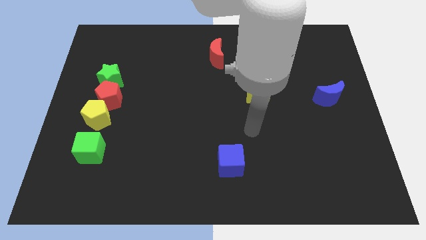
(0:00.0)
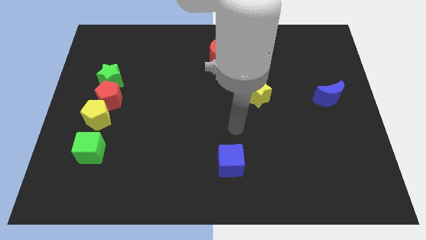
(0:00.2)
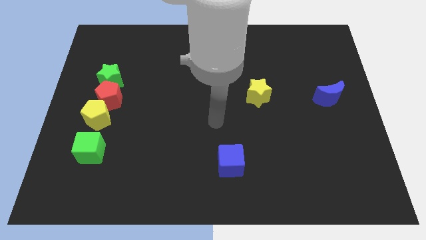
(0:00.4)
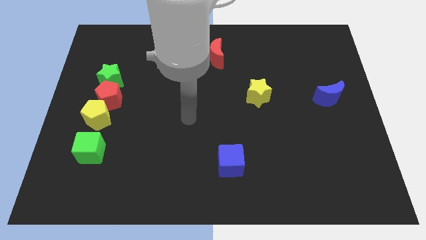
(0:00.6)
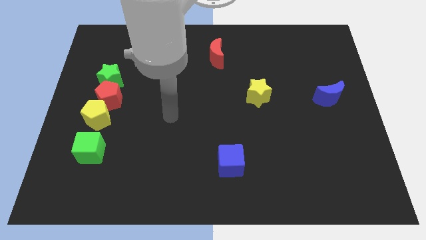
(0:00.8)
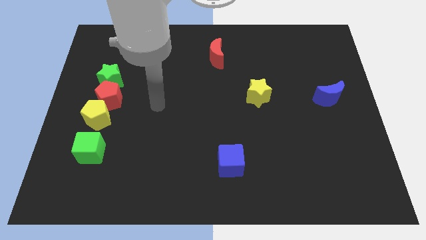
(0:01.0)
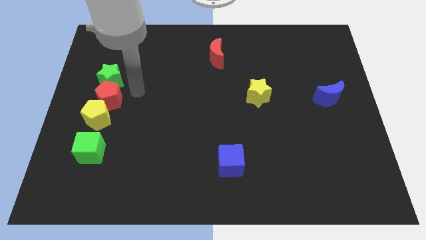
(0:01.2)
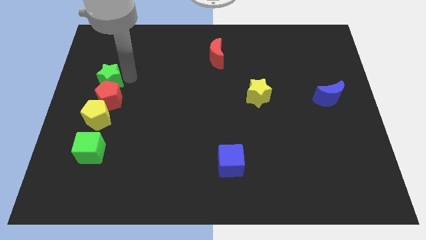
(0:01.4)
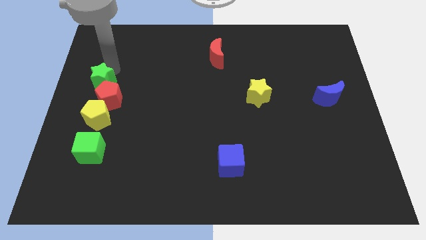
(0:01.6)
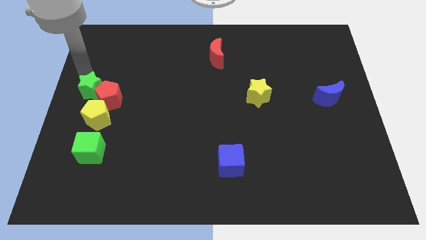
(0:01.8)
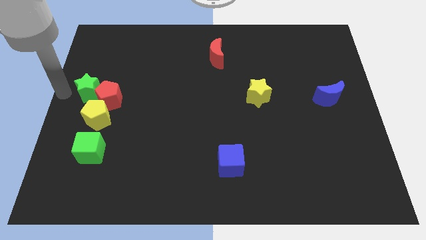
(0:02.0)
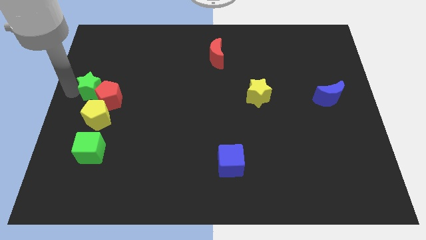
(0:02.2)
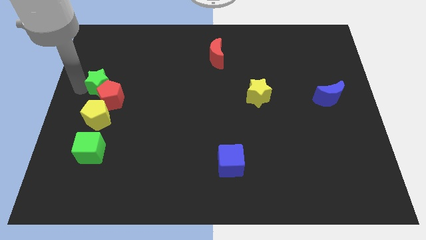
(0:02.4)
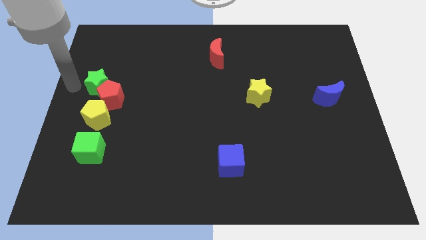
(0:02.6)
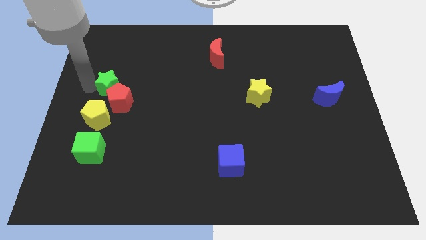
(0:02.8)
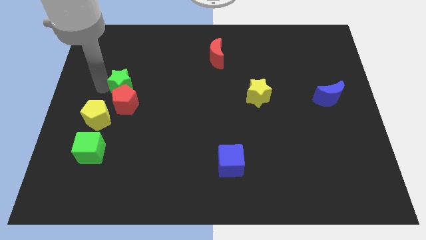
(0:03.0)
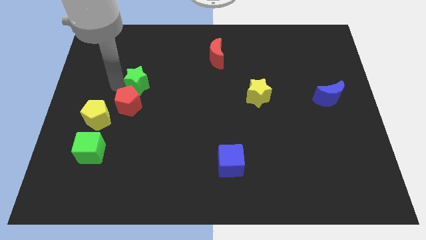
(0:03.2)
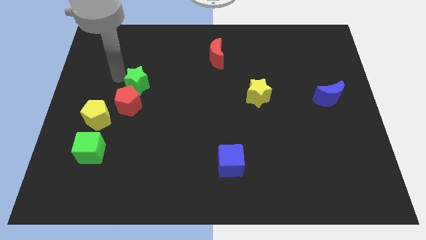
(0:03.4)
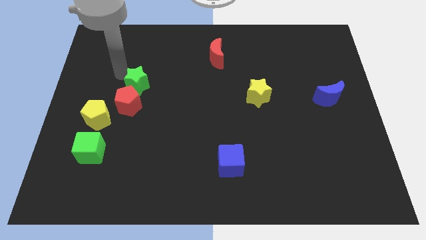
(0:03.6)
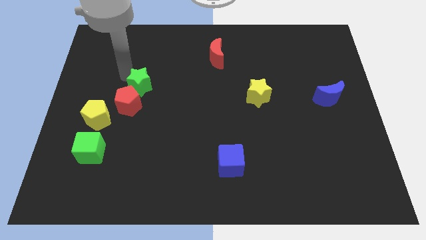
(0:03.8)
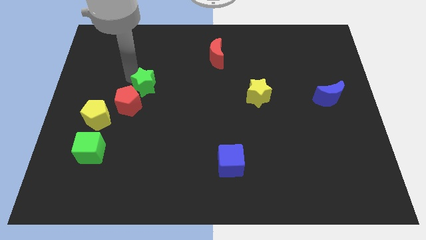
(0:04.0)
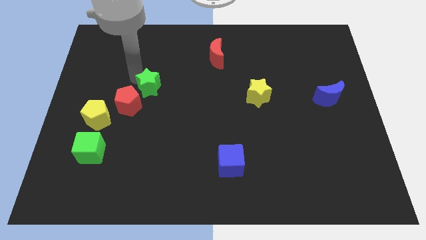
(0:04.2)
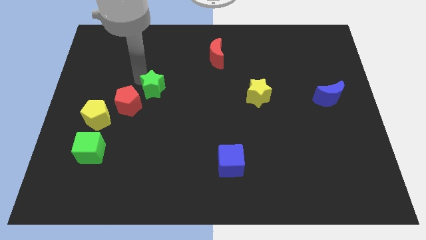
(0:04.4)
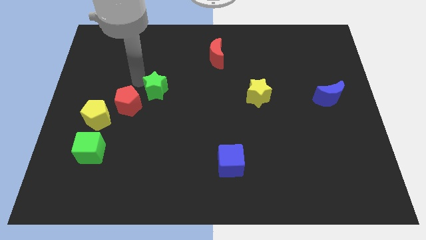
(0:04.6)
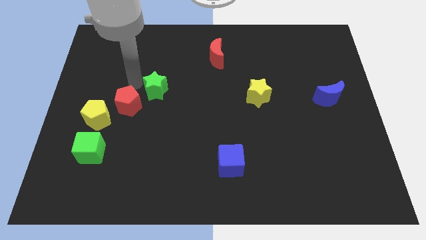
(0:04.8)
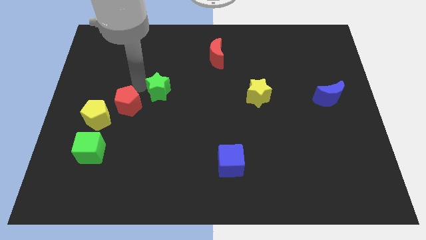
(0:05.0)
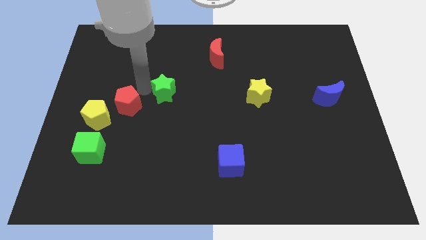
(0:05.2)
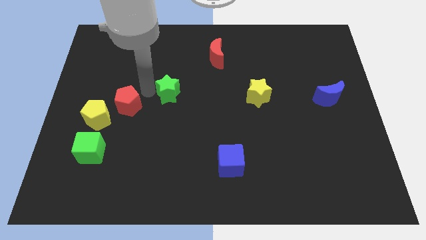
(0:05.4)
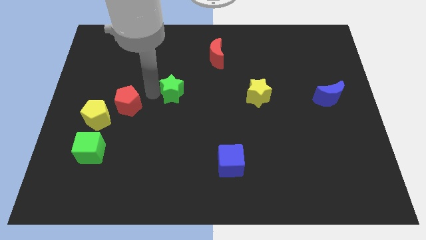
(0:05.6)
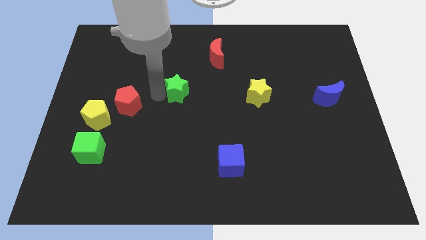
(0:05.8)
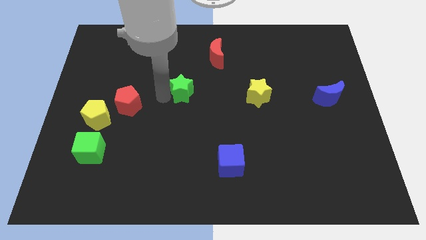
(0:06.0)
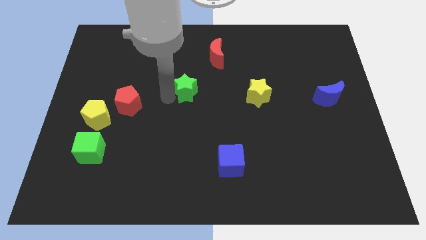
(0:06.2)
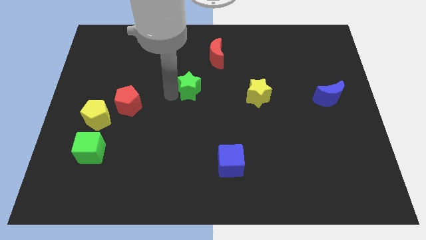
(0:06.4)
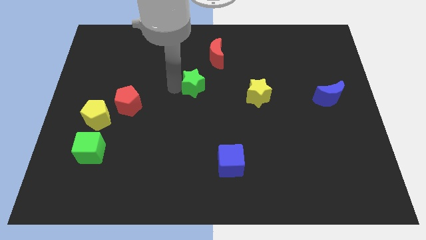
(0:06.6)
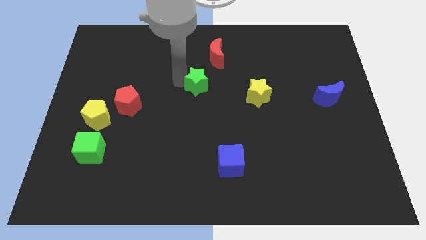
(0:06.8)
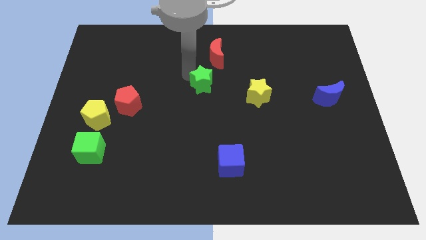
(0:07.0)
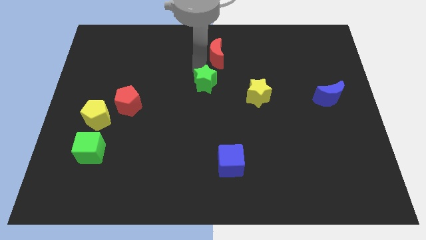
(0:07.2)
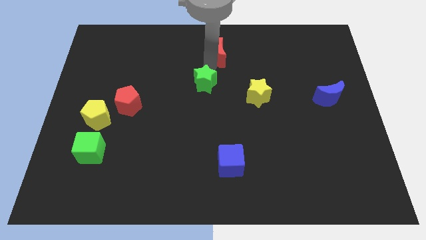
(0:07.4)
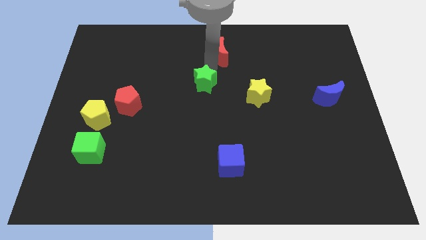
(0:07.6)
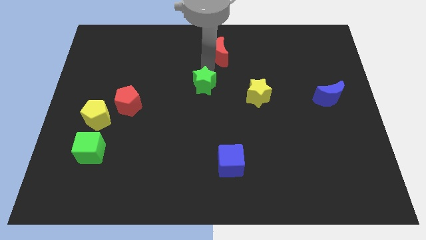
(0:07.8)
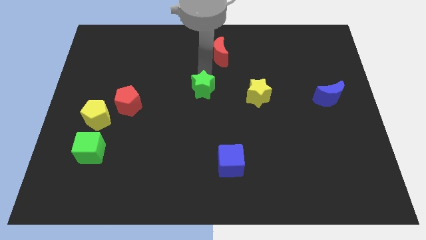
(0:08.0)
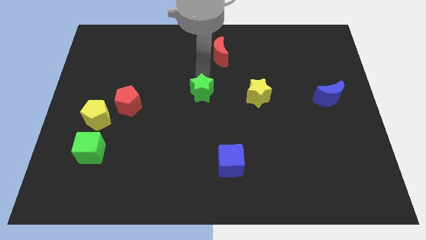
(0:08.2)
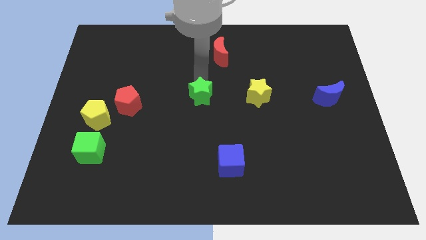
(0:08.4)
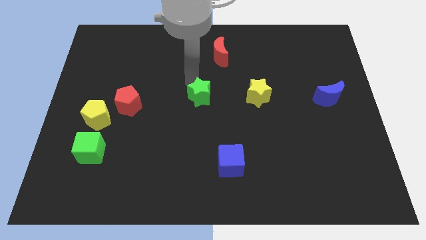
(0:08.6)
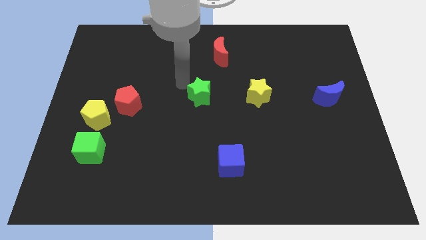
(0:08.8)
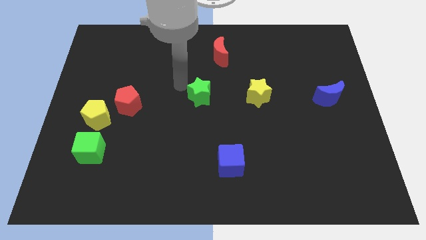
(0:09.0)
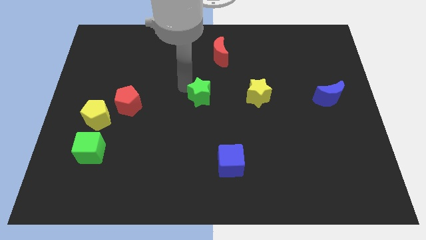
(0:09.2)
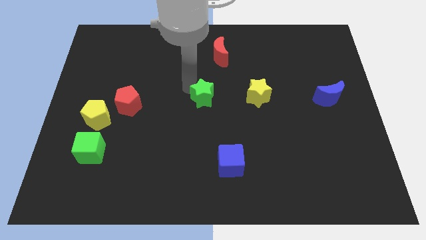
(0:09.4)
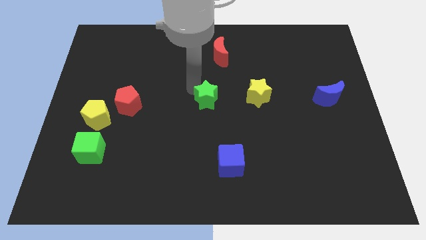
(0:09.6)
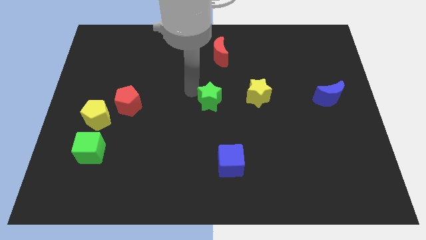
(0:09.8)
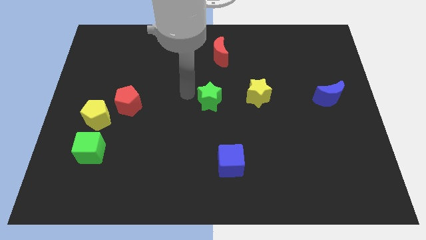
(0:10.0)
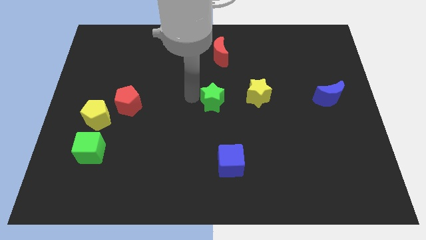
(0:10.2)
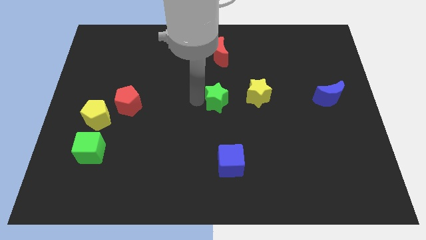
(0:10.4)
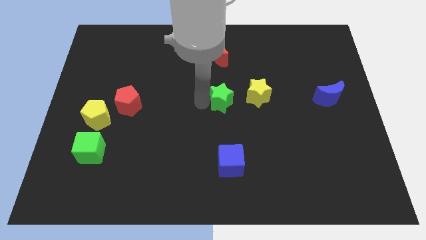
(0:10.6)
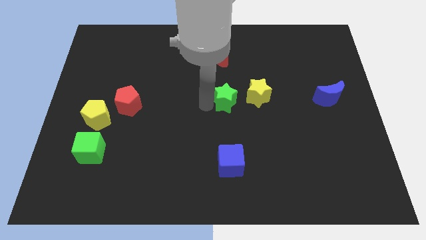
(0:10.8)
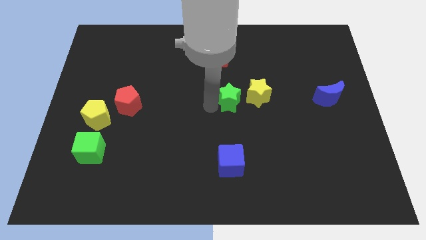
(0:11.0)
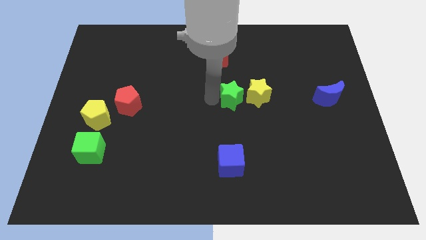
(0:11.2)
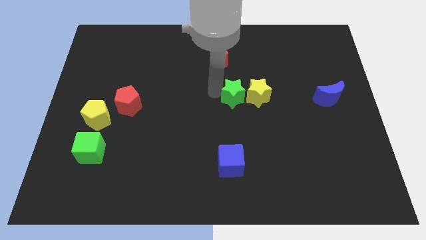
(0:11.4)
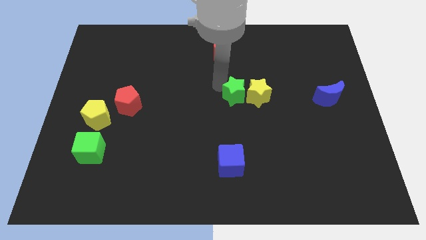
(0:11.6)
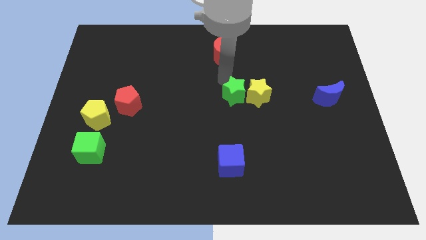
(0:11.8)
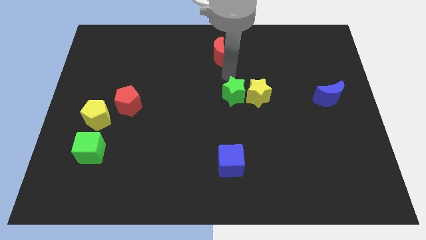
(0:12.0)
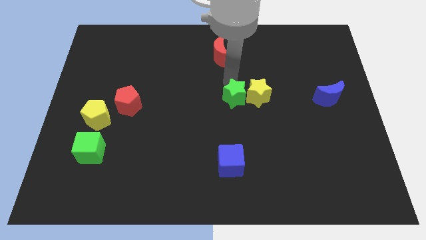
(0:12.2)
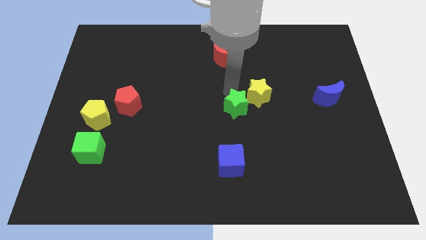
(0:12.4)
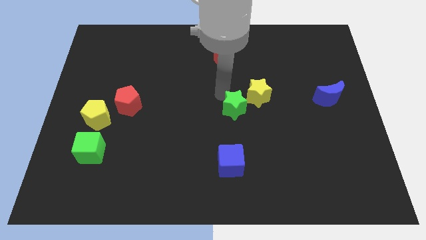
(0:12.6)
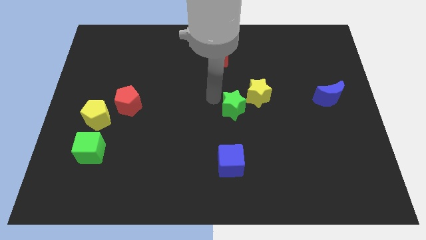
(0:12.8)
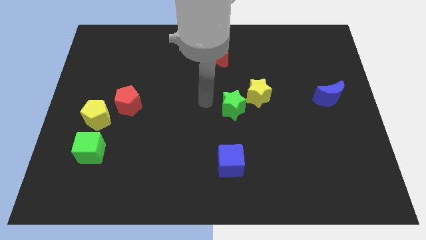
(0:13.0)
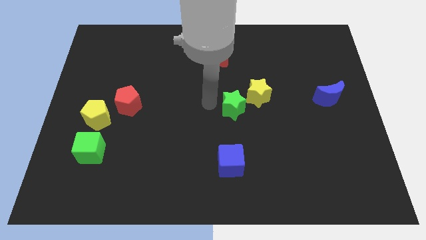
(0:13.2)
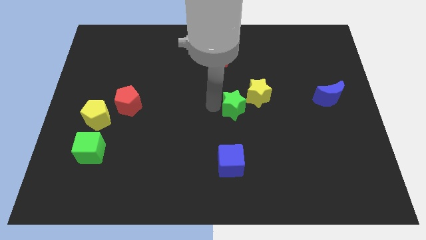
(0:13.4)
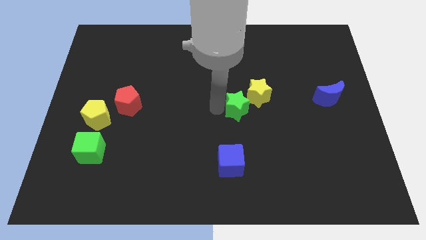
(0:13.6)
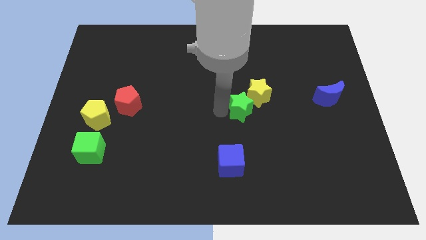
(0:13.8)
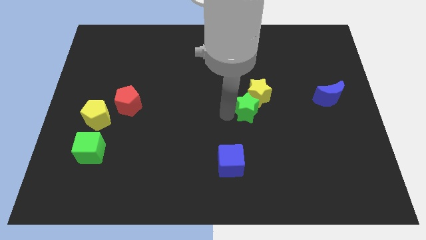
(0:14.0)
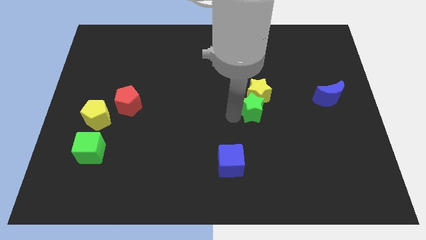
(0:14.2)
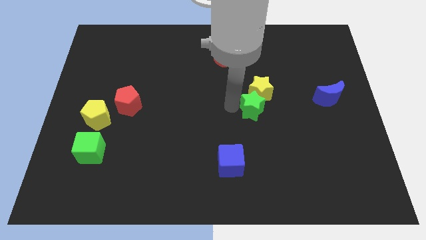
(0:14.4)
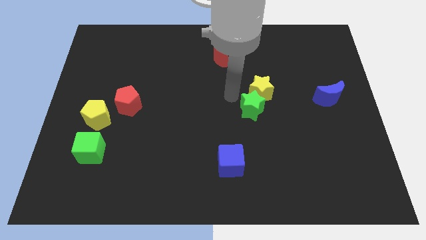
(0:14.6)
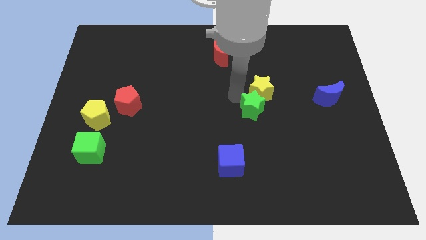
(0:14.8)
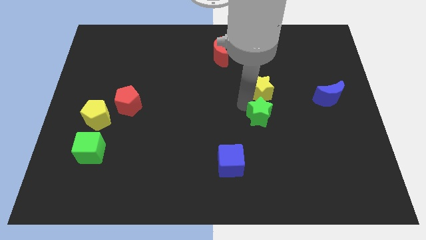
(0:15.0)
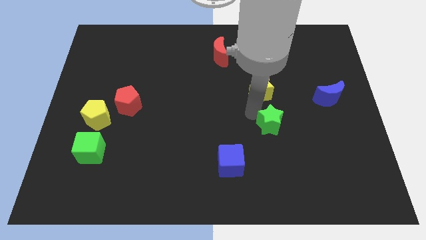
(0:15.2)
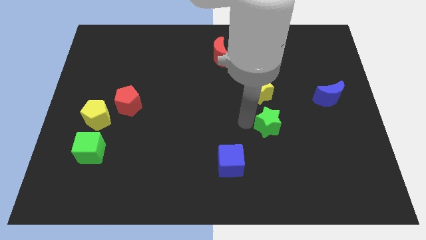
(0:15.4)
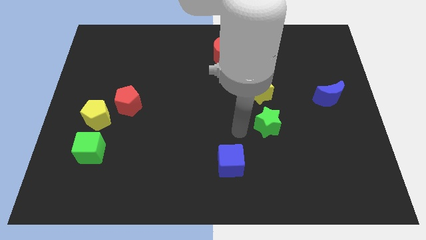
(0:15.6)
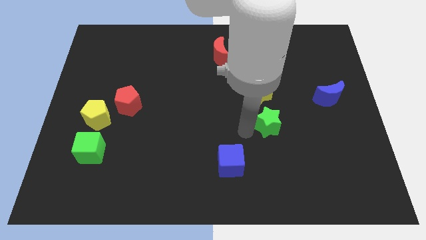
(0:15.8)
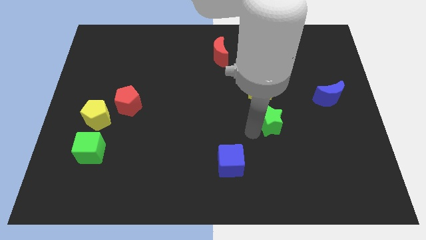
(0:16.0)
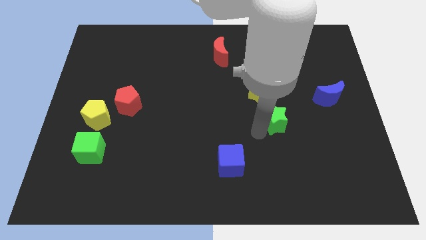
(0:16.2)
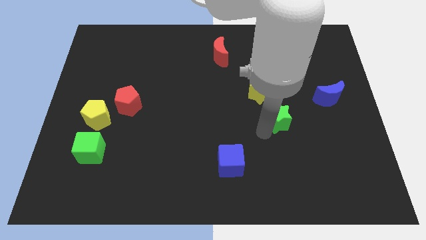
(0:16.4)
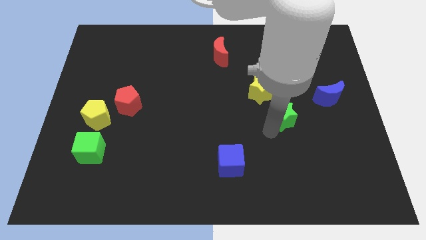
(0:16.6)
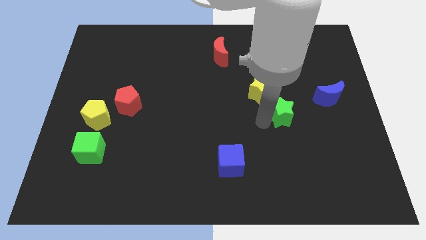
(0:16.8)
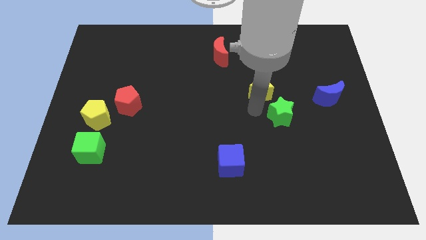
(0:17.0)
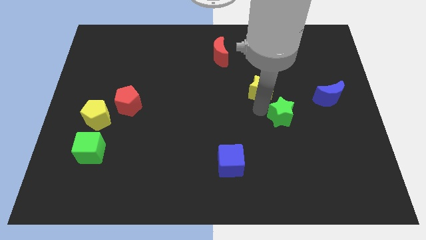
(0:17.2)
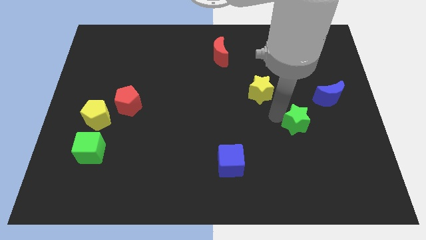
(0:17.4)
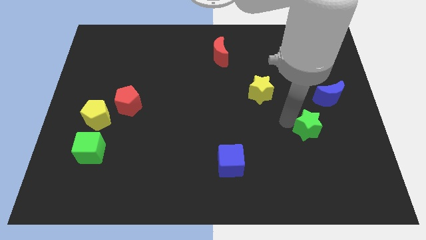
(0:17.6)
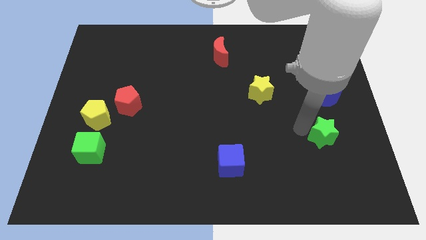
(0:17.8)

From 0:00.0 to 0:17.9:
move the green star to the bottom of the blue moon
